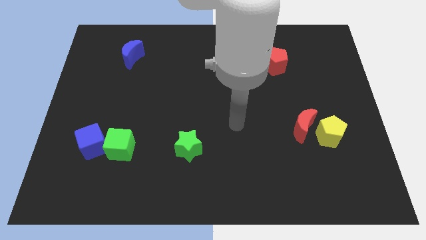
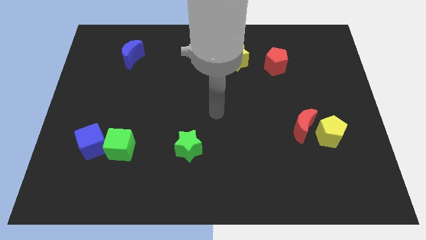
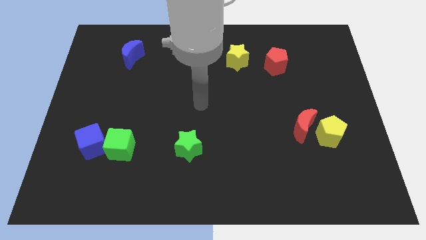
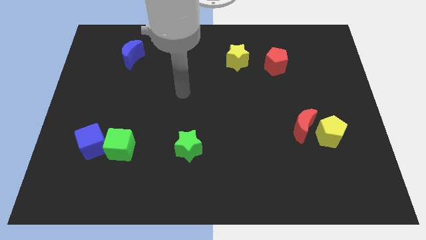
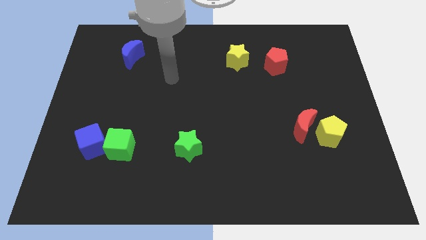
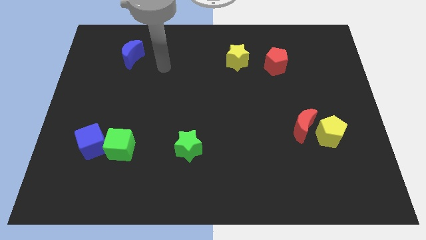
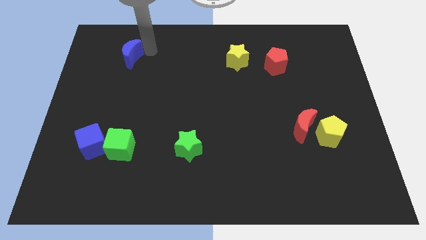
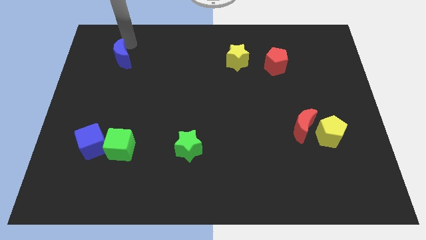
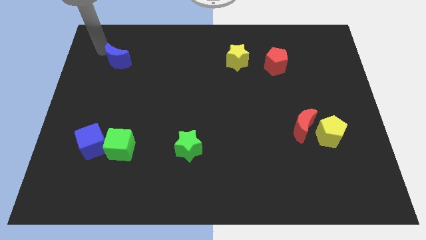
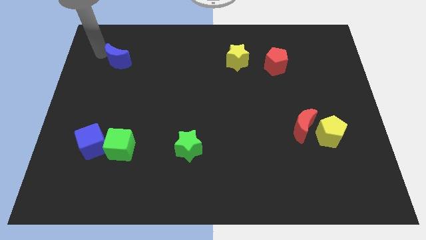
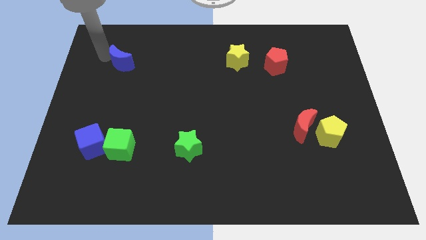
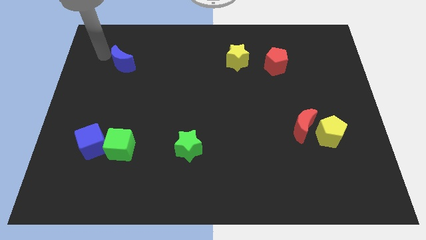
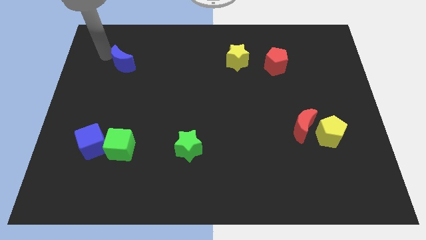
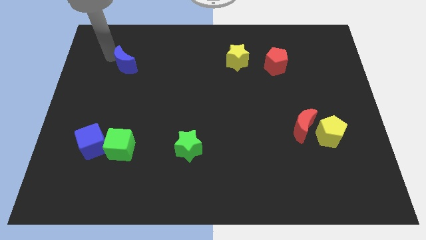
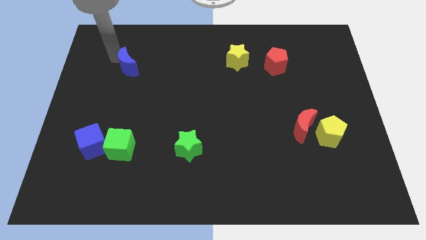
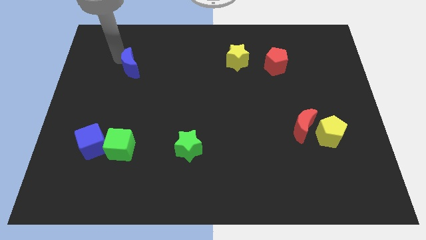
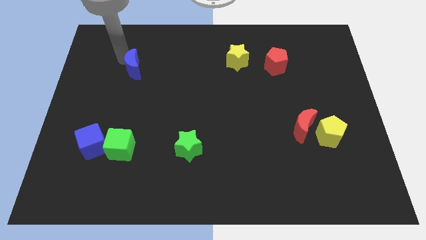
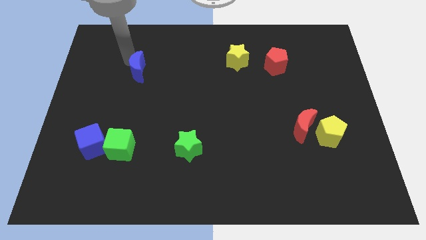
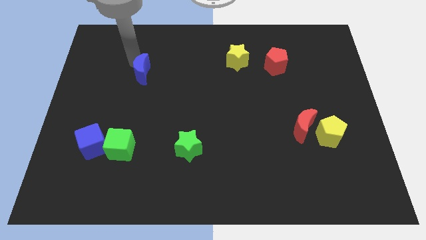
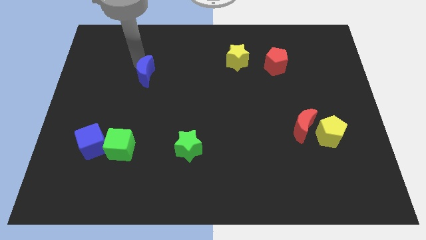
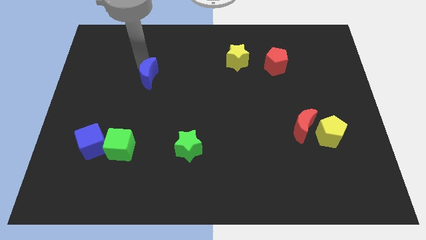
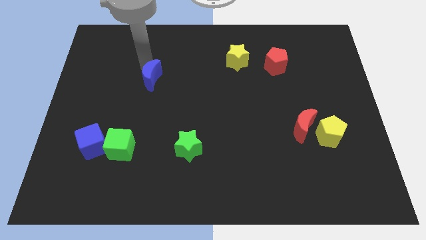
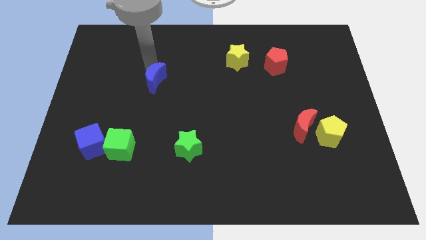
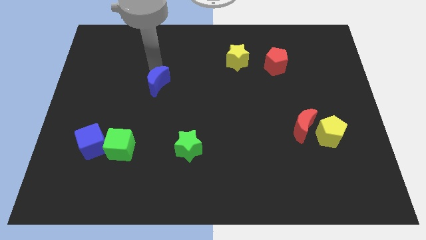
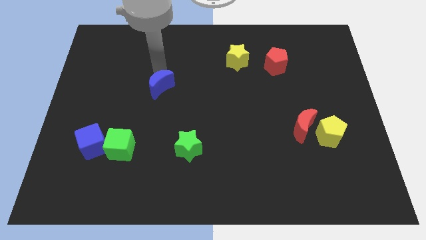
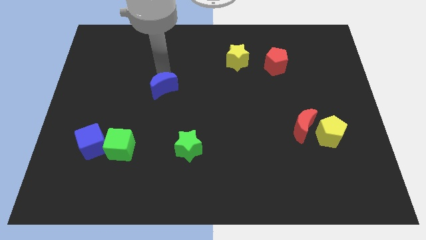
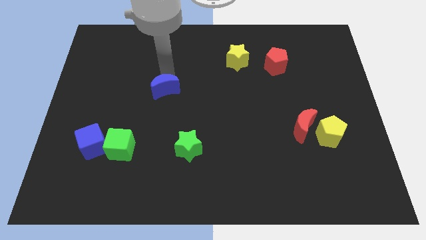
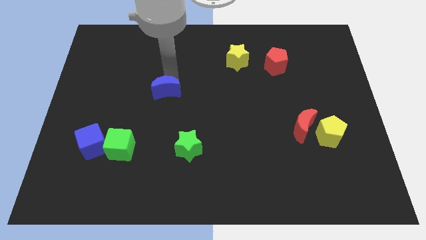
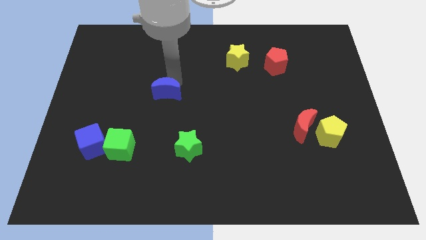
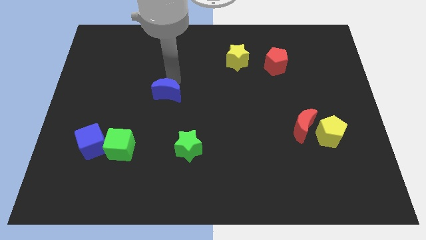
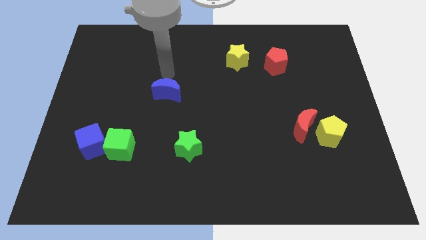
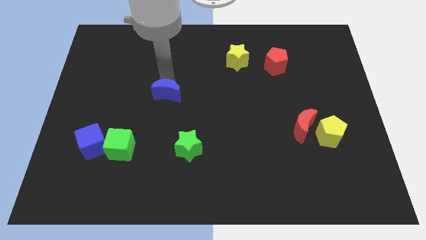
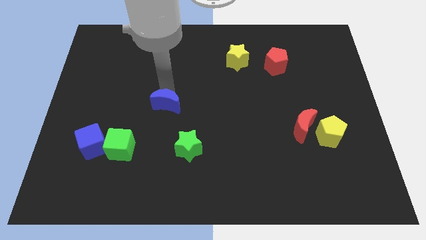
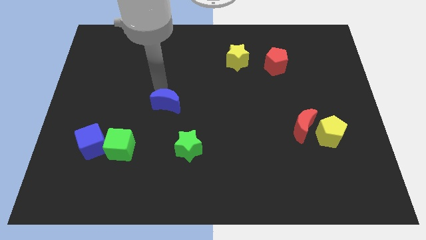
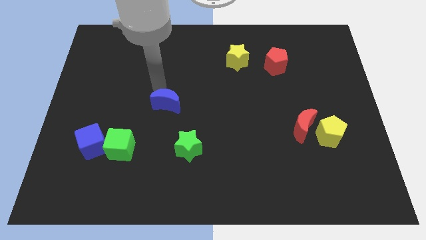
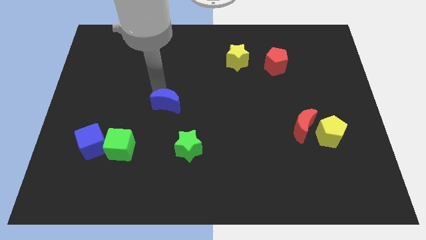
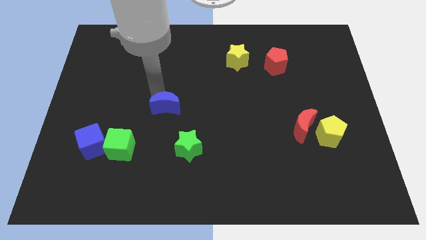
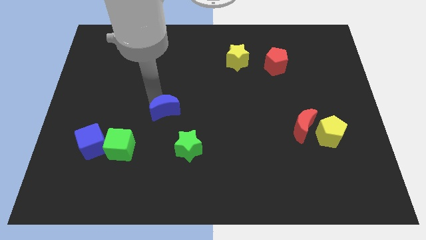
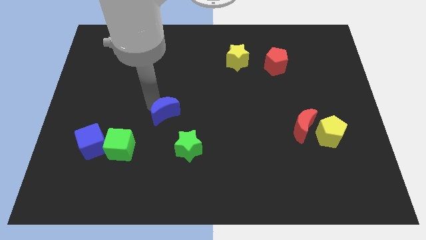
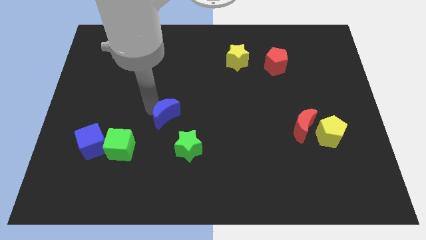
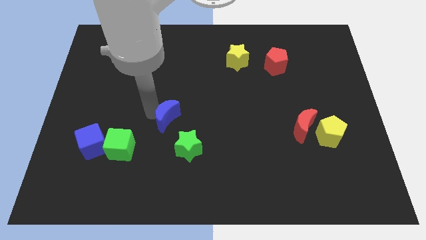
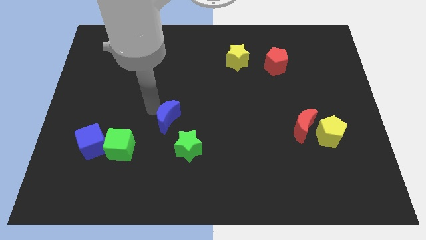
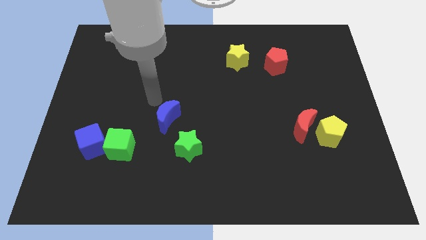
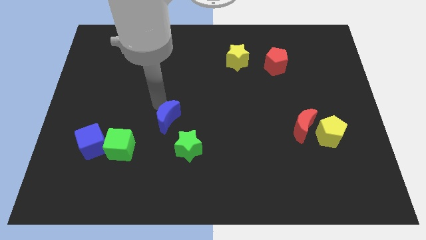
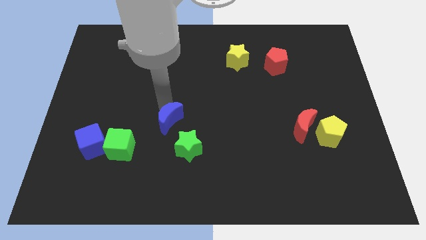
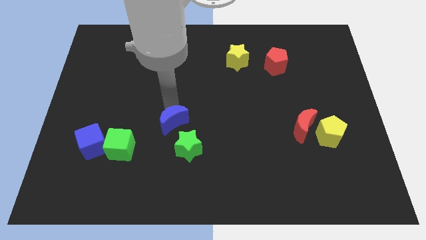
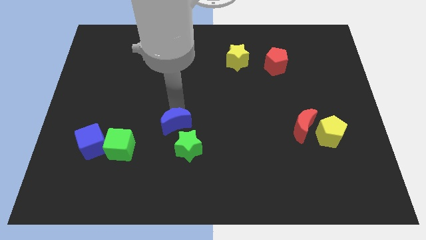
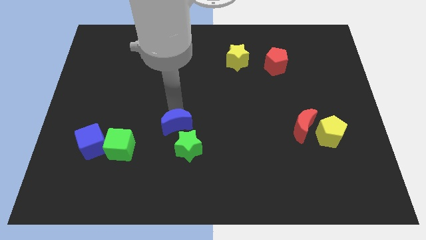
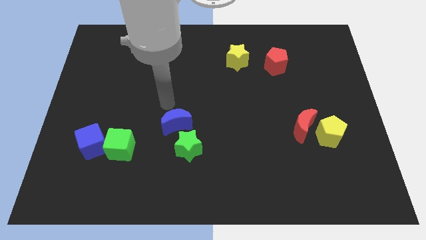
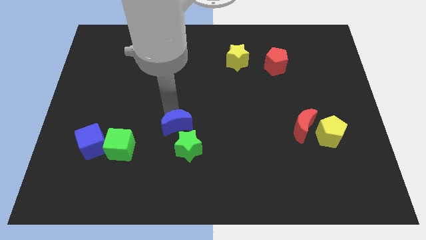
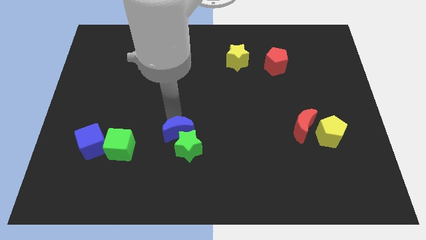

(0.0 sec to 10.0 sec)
put the blue moon towards the green star

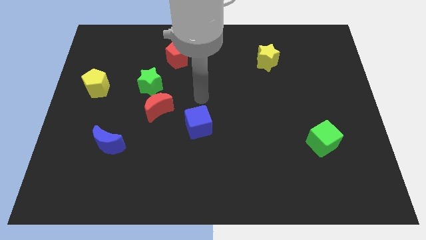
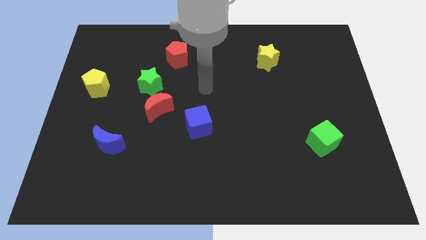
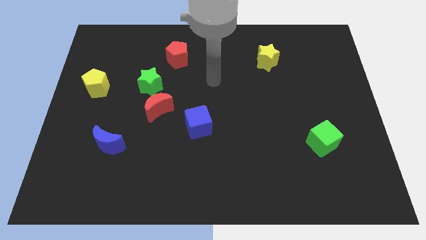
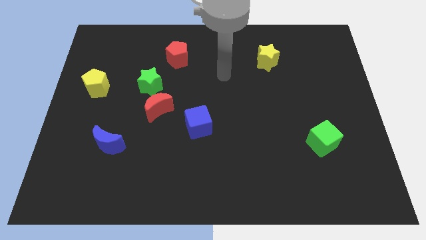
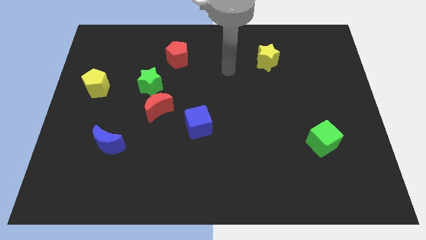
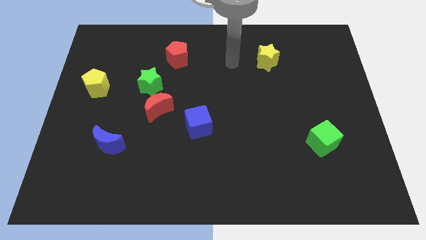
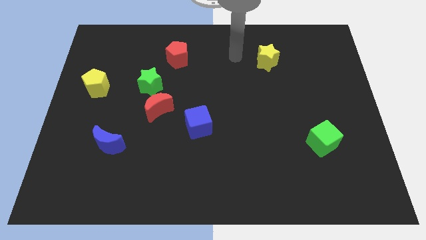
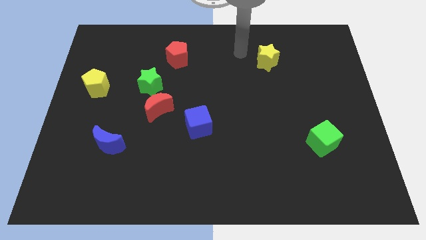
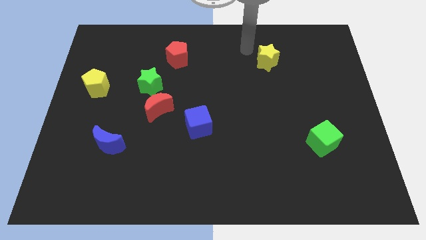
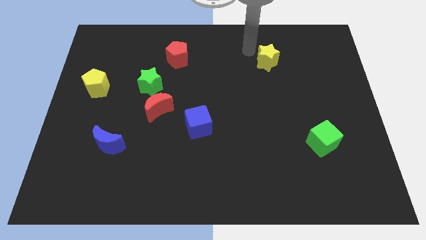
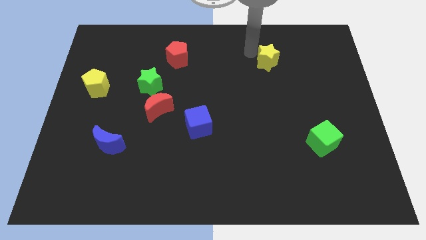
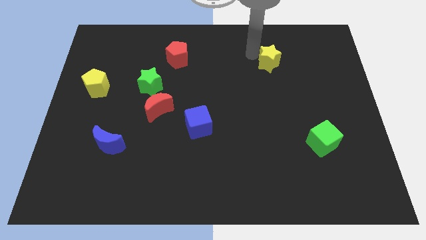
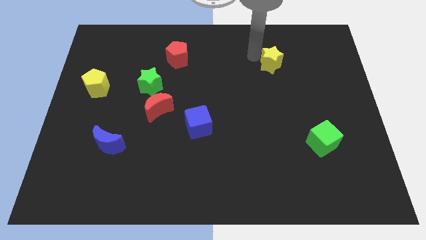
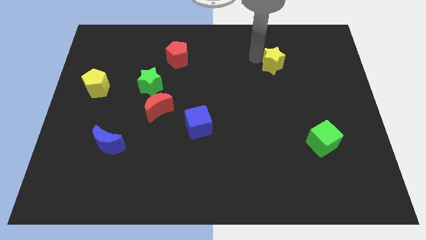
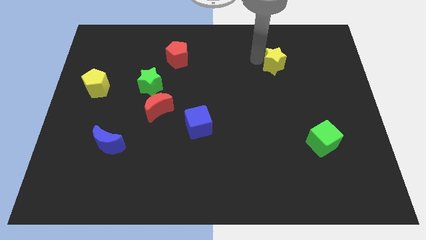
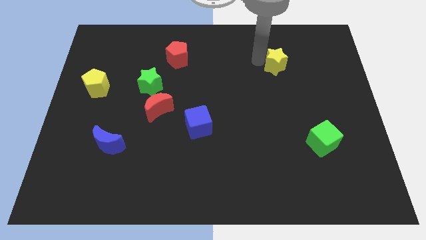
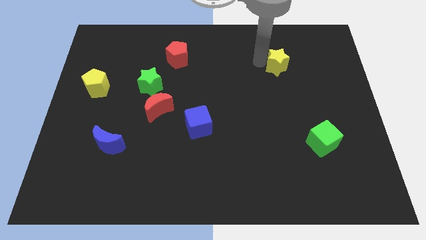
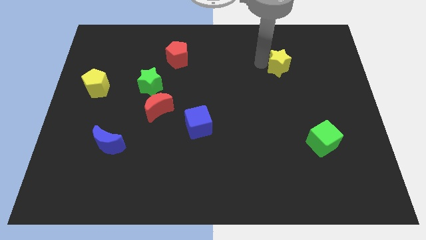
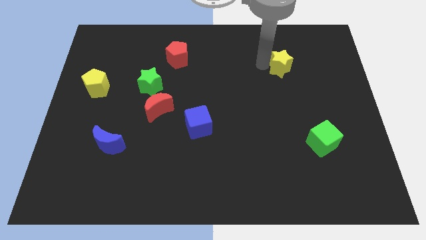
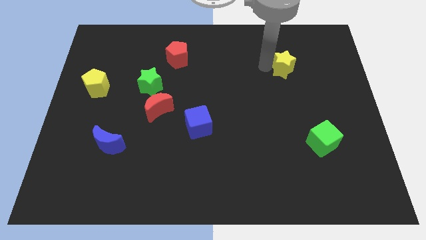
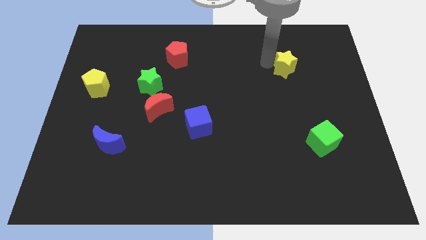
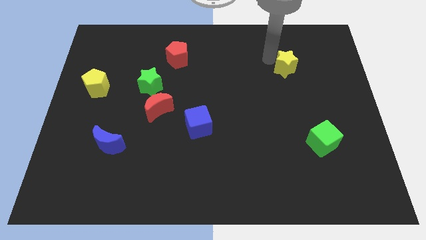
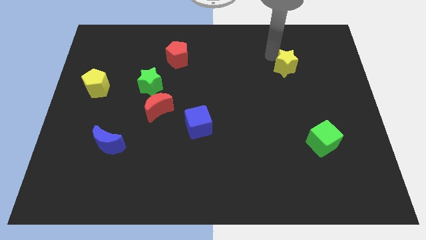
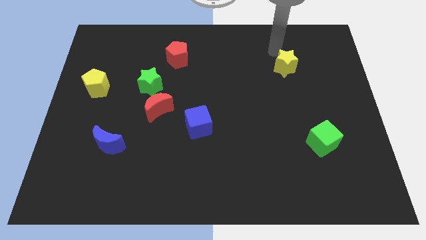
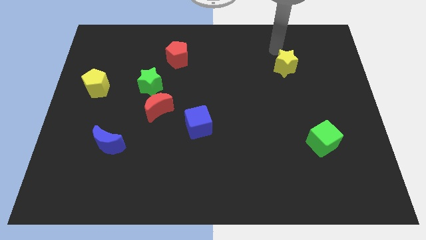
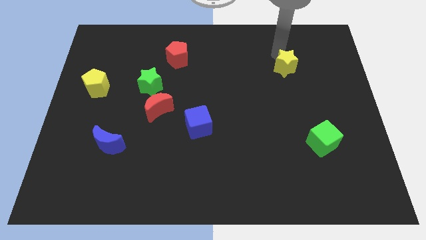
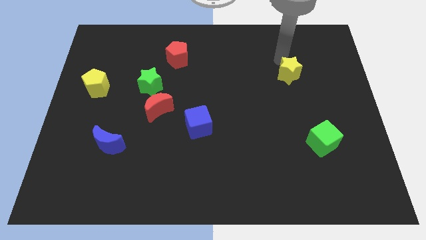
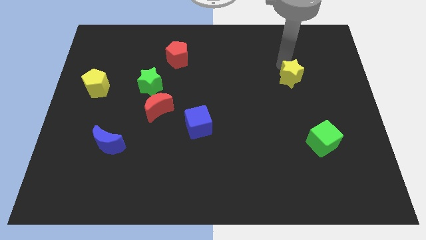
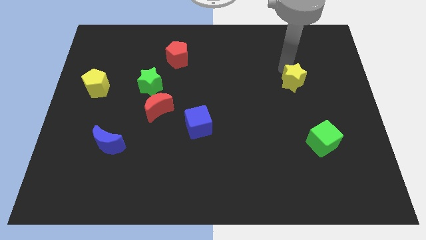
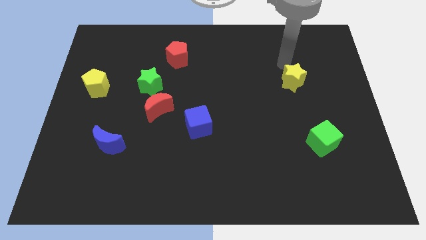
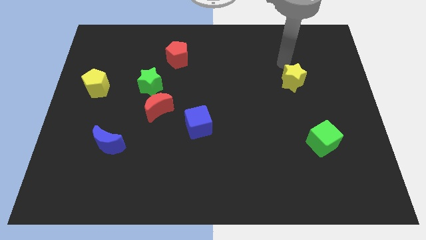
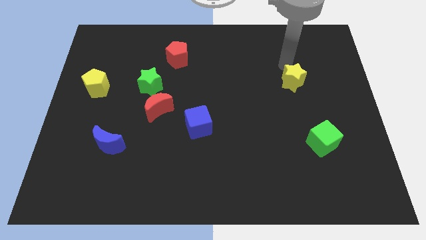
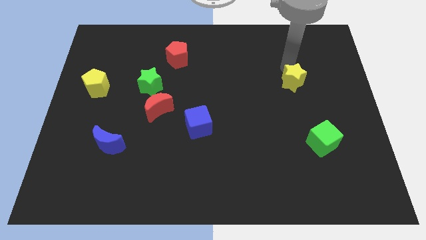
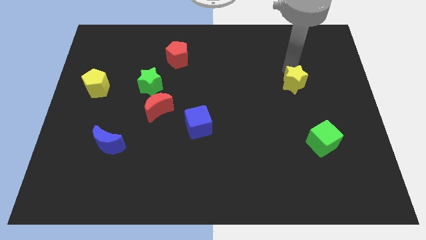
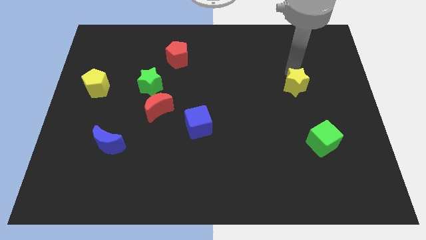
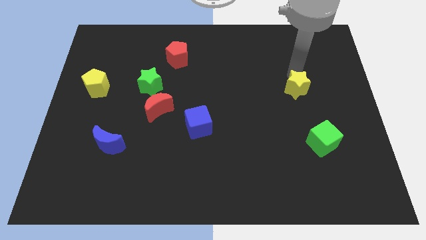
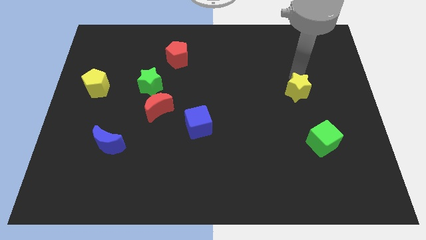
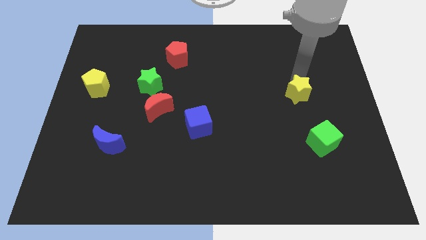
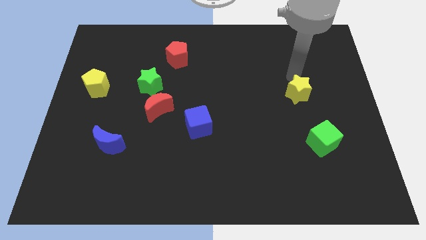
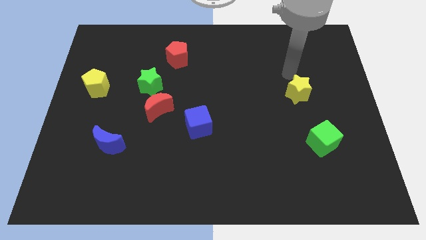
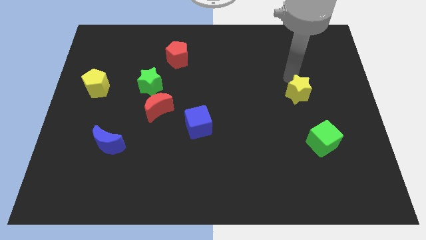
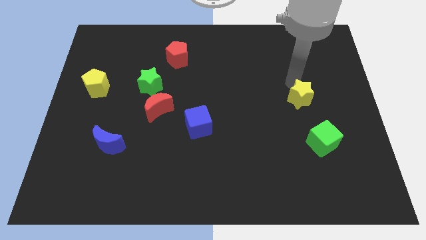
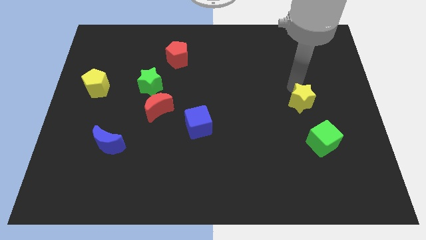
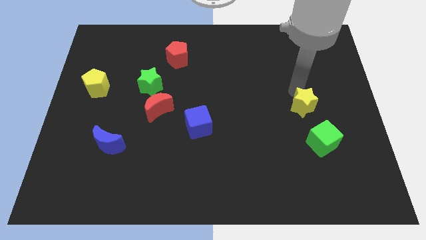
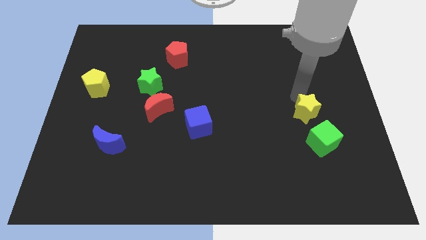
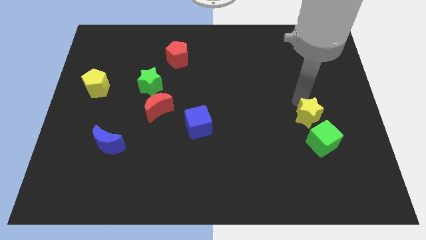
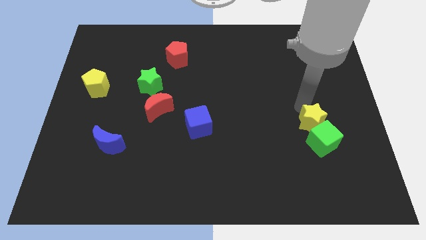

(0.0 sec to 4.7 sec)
put the yellow star close to the green cube
